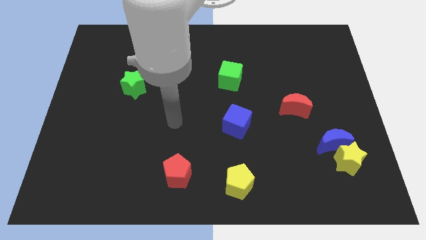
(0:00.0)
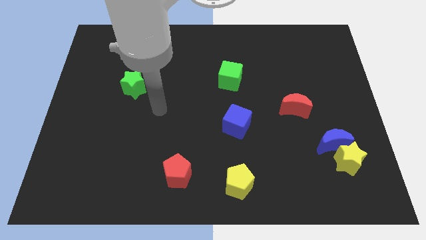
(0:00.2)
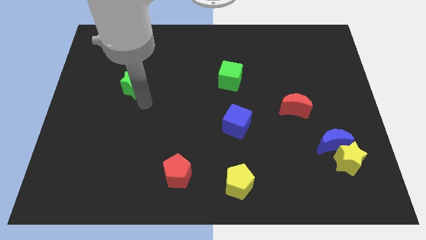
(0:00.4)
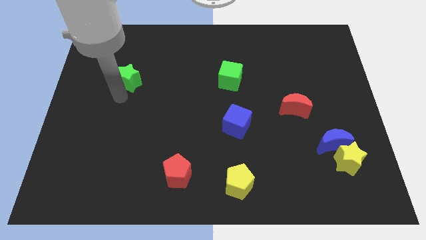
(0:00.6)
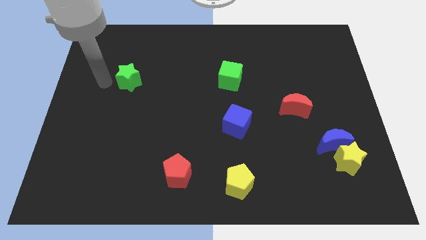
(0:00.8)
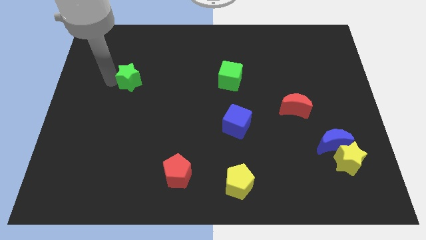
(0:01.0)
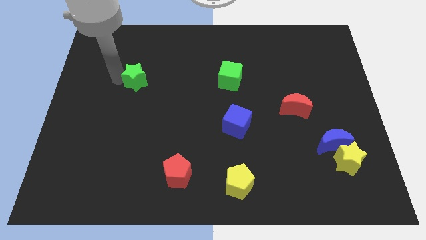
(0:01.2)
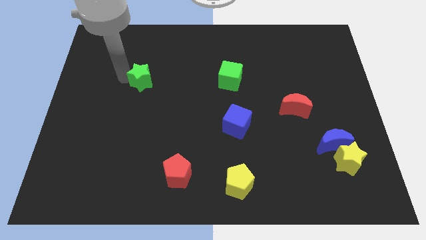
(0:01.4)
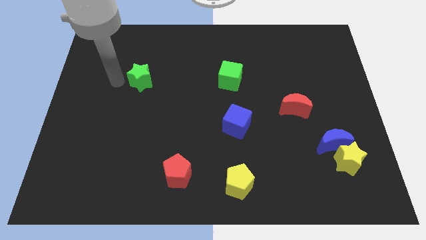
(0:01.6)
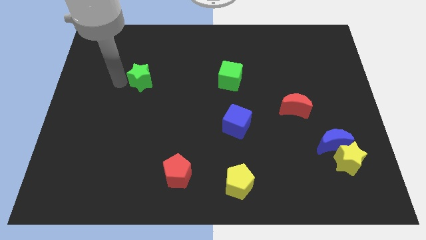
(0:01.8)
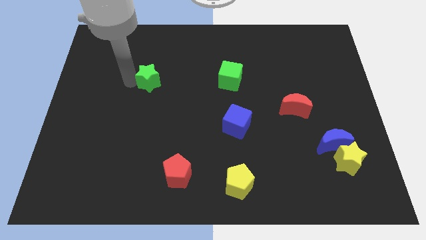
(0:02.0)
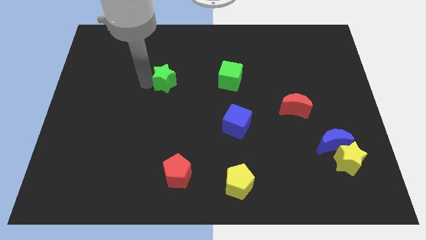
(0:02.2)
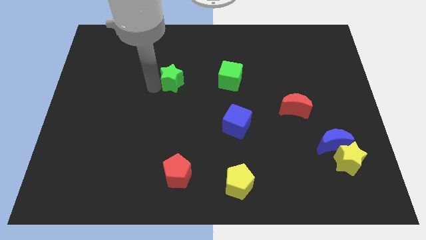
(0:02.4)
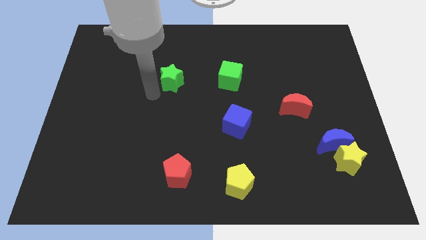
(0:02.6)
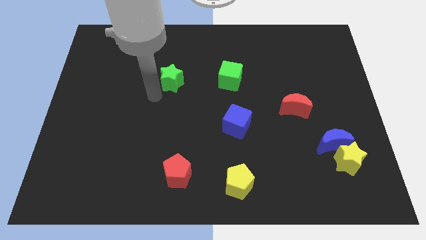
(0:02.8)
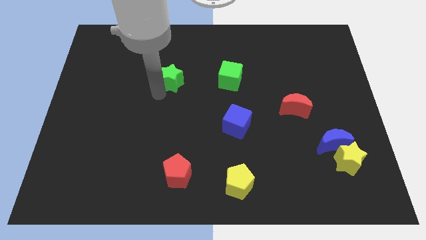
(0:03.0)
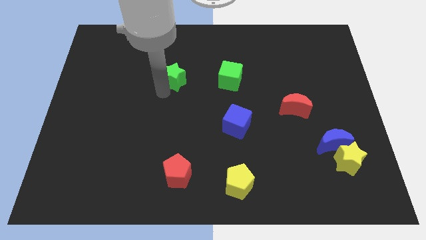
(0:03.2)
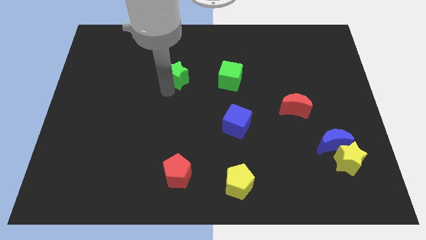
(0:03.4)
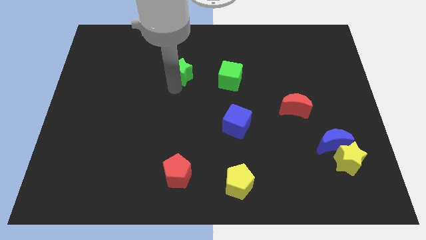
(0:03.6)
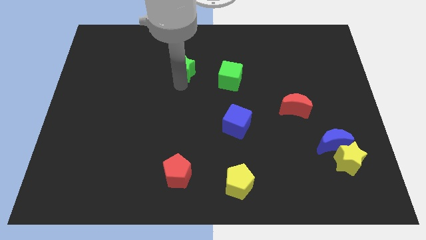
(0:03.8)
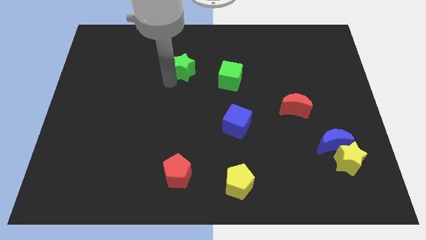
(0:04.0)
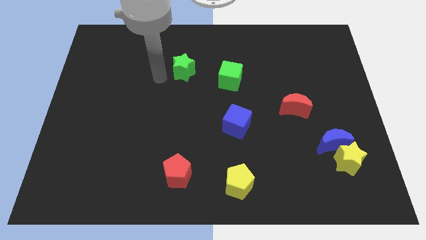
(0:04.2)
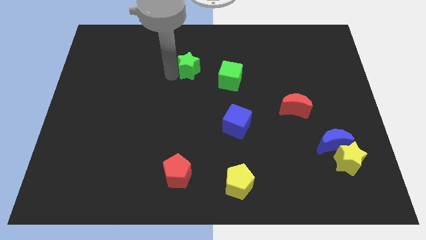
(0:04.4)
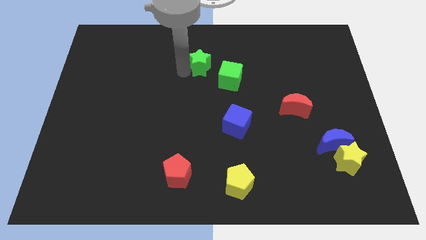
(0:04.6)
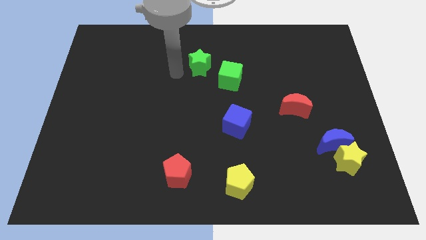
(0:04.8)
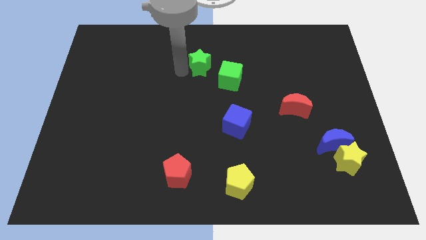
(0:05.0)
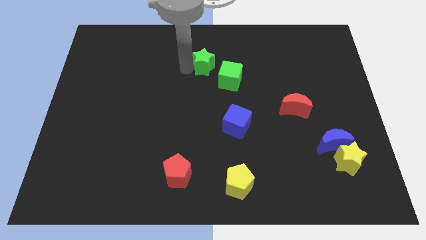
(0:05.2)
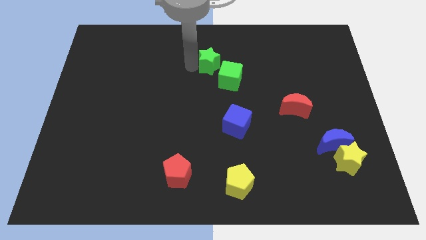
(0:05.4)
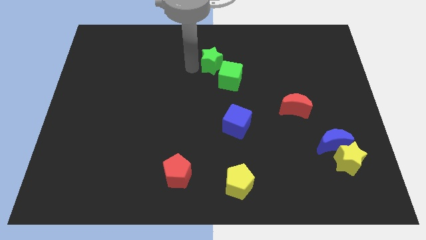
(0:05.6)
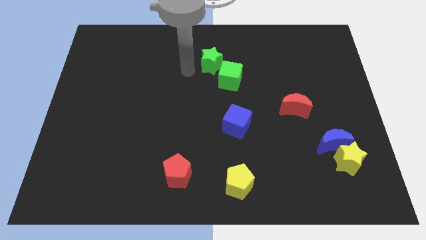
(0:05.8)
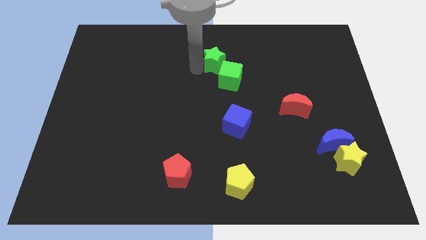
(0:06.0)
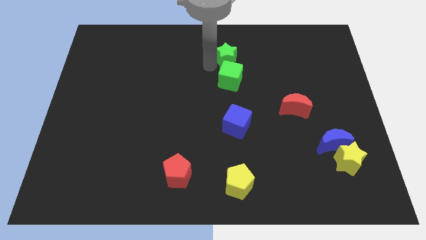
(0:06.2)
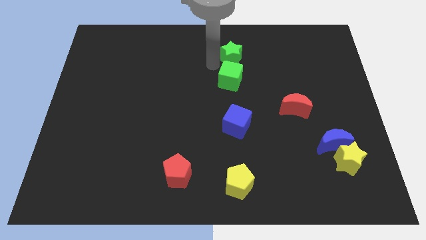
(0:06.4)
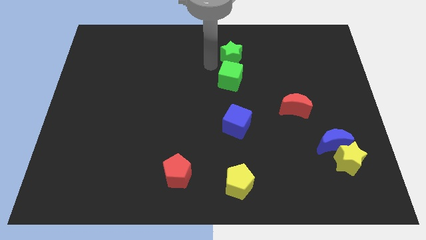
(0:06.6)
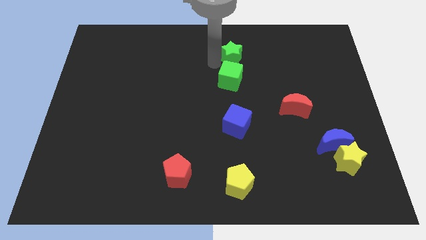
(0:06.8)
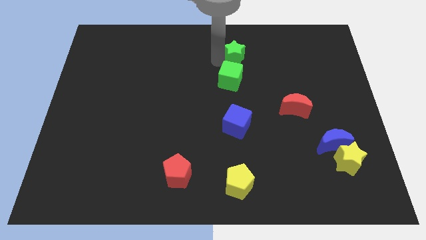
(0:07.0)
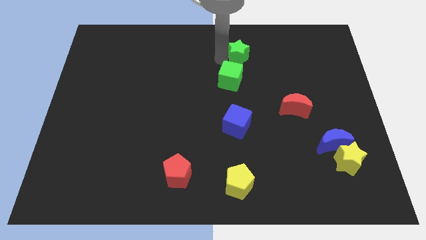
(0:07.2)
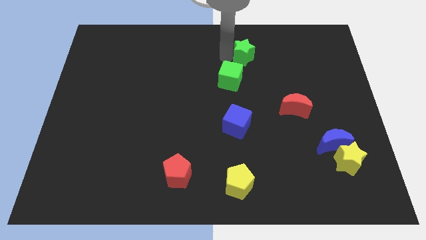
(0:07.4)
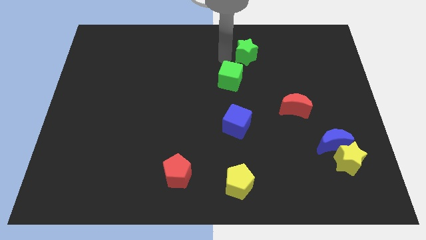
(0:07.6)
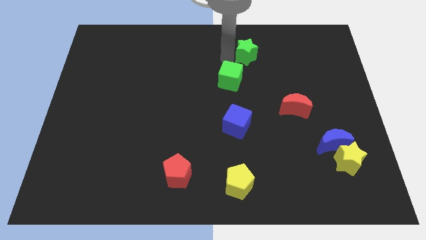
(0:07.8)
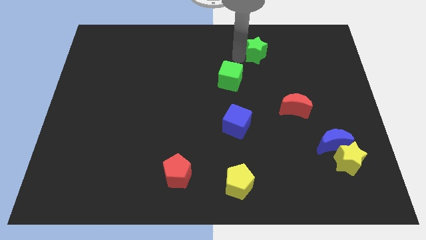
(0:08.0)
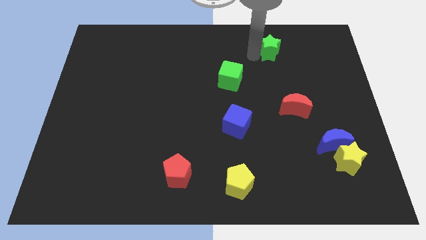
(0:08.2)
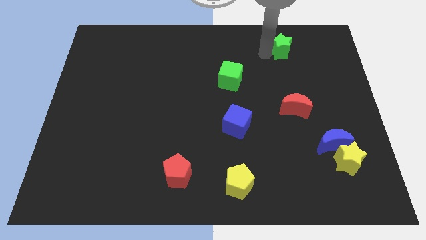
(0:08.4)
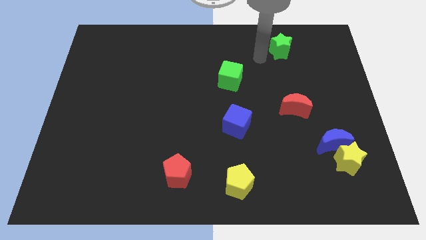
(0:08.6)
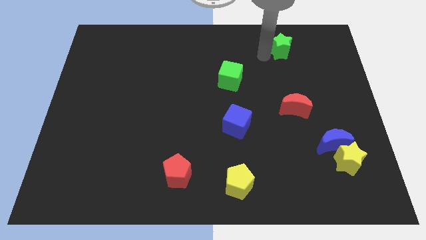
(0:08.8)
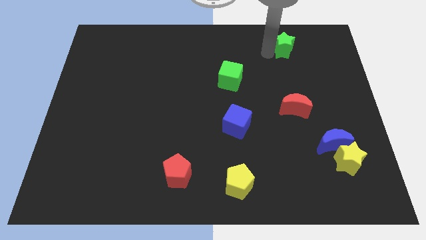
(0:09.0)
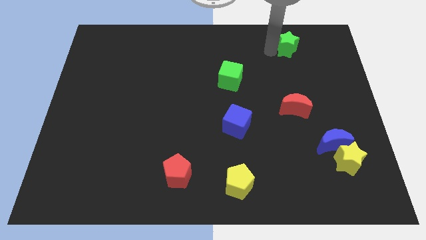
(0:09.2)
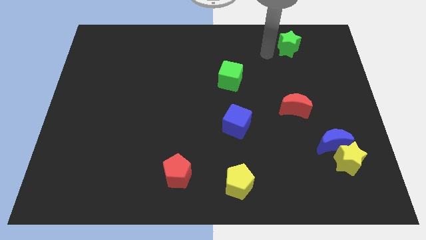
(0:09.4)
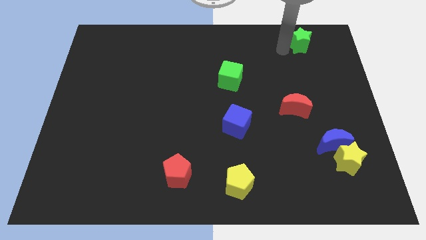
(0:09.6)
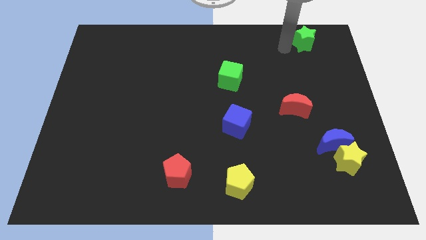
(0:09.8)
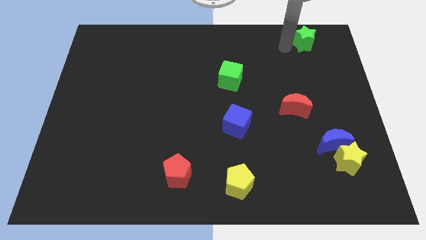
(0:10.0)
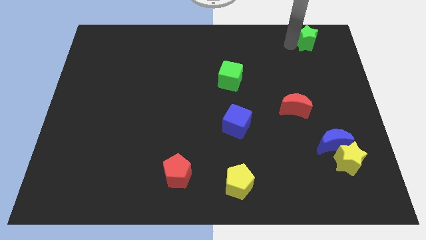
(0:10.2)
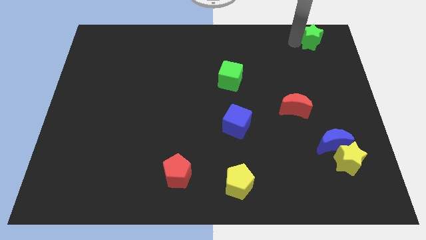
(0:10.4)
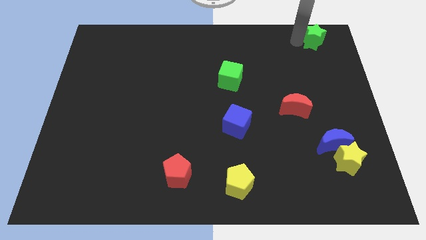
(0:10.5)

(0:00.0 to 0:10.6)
push the green star to the top right of the board

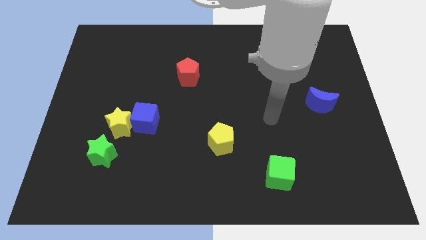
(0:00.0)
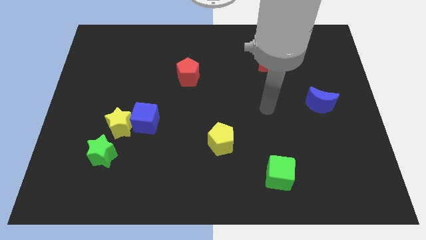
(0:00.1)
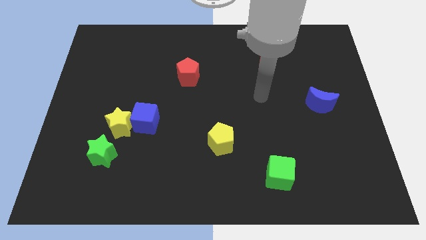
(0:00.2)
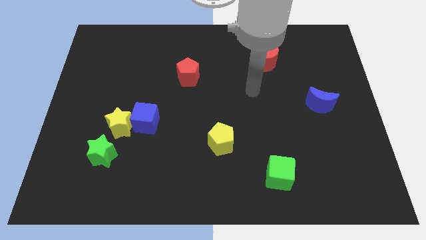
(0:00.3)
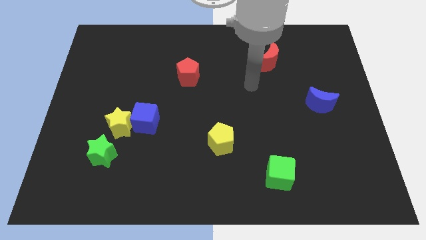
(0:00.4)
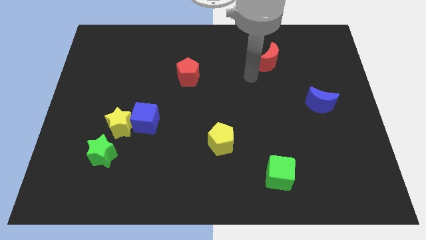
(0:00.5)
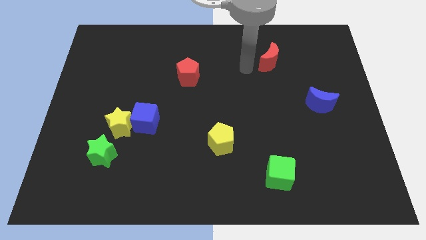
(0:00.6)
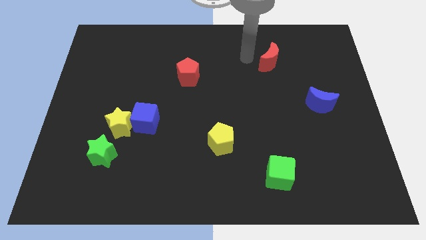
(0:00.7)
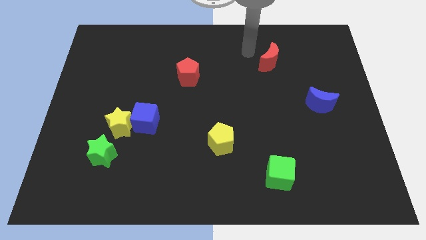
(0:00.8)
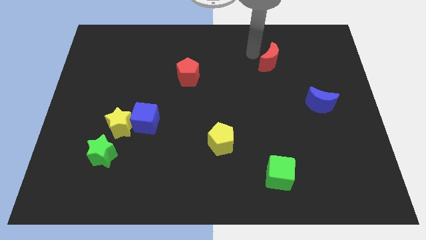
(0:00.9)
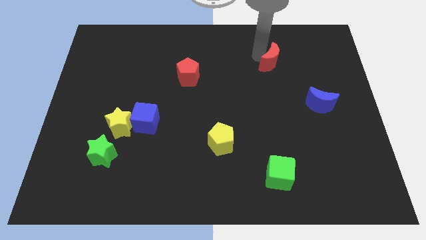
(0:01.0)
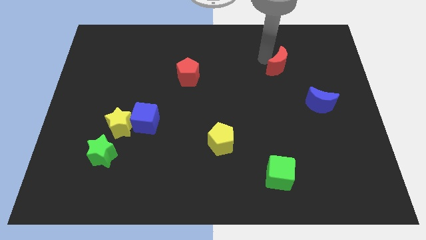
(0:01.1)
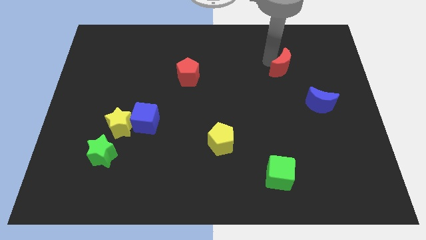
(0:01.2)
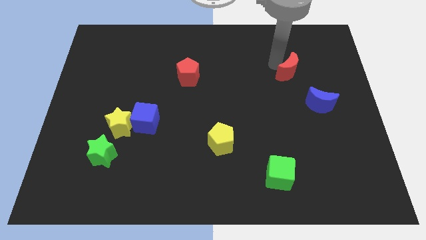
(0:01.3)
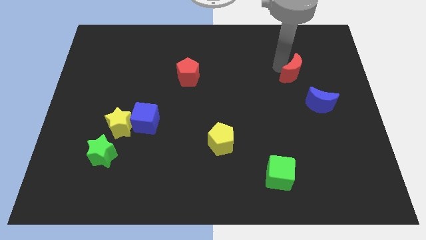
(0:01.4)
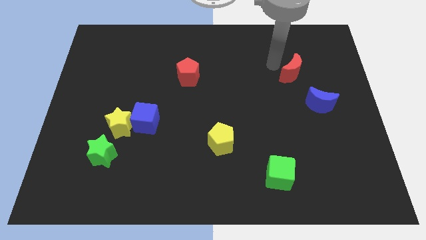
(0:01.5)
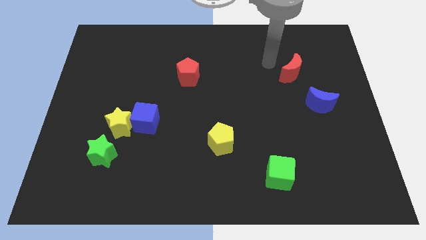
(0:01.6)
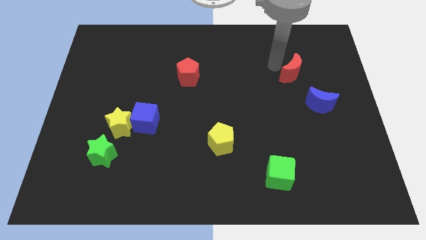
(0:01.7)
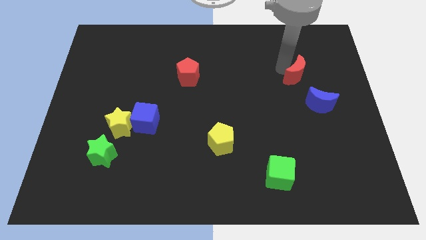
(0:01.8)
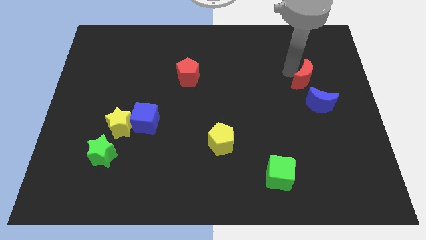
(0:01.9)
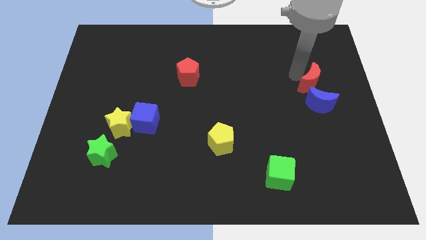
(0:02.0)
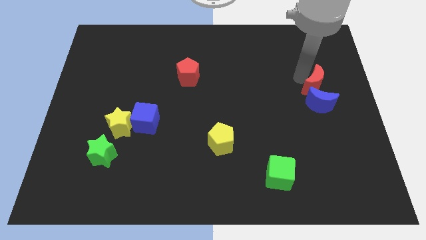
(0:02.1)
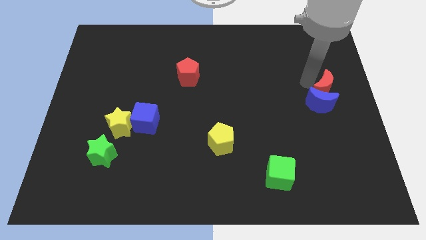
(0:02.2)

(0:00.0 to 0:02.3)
move the red moon to the right side
